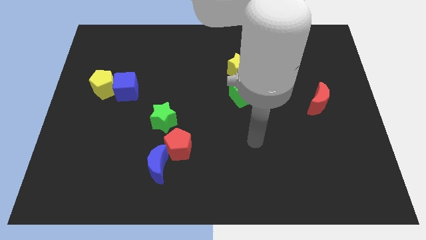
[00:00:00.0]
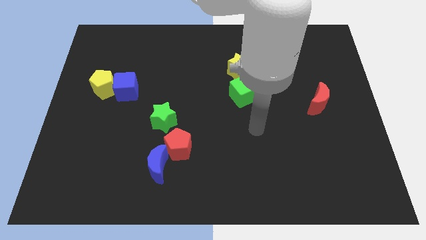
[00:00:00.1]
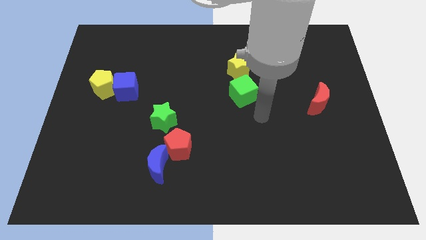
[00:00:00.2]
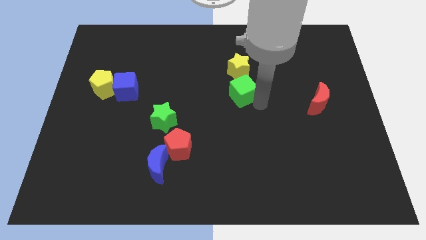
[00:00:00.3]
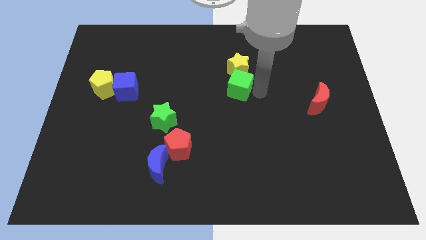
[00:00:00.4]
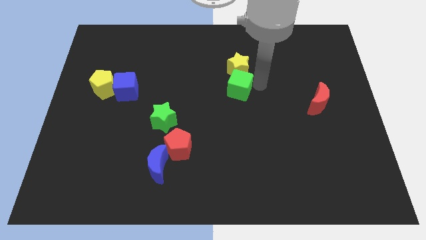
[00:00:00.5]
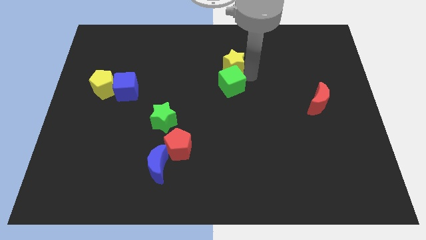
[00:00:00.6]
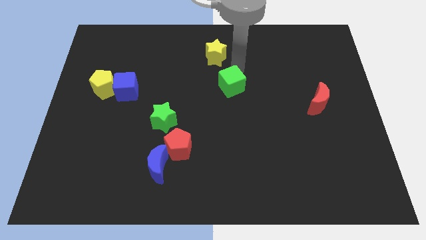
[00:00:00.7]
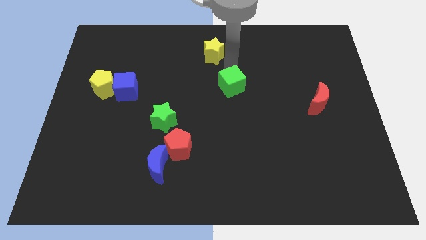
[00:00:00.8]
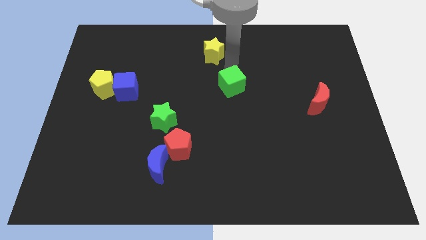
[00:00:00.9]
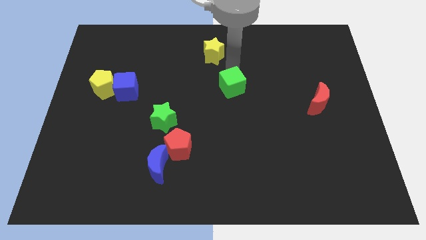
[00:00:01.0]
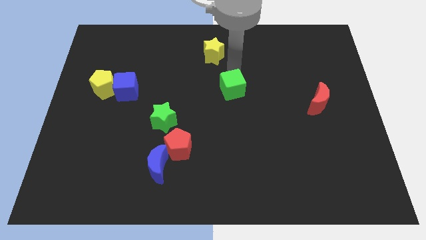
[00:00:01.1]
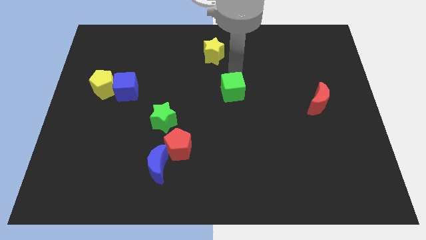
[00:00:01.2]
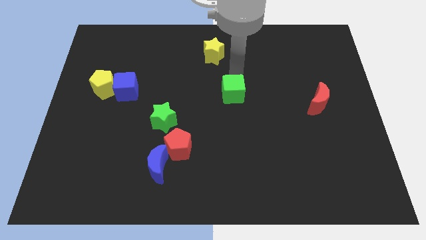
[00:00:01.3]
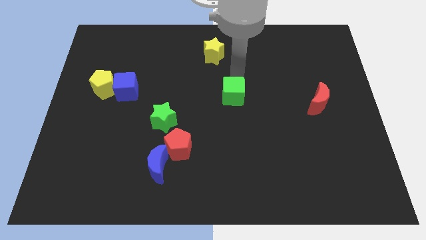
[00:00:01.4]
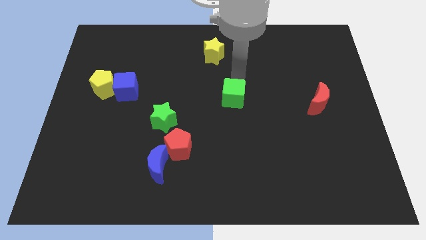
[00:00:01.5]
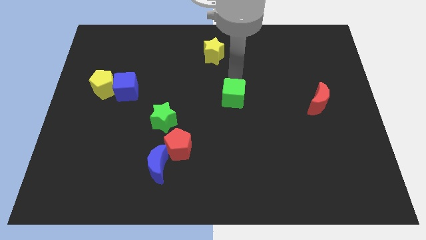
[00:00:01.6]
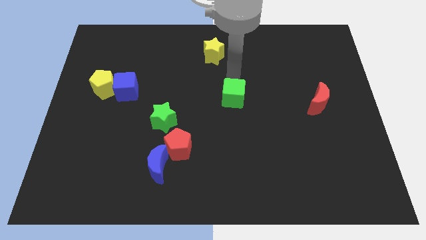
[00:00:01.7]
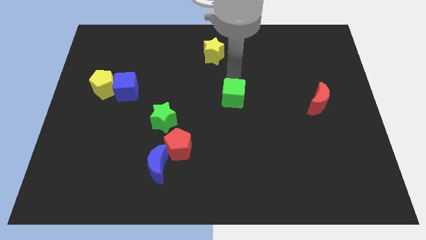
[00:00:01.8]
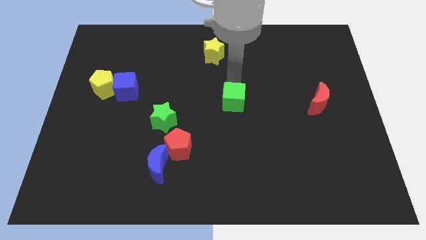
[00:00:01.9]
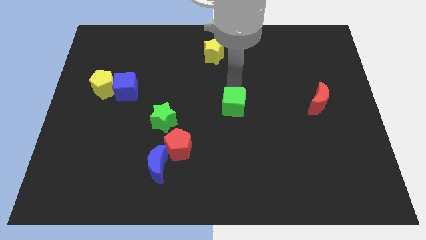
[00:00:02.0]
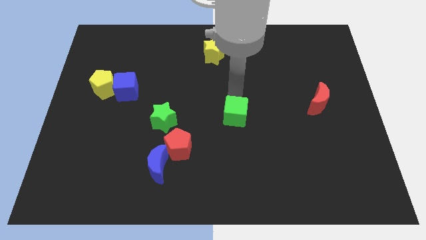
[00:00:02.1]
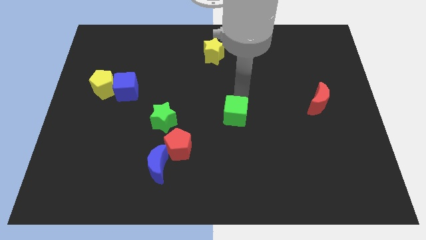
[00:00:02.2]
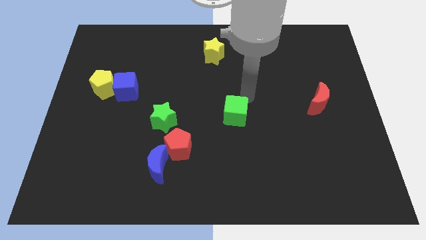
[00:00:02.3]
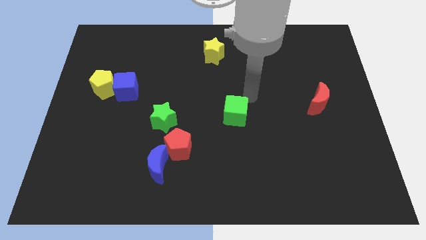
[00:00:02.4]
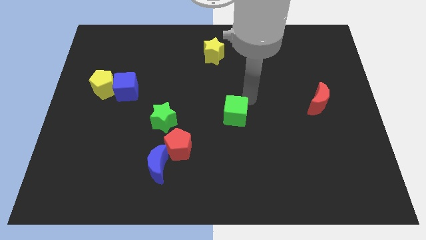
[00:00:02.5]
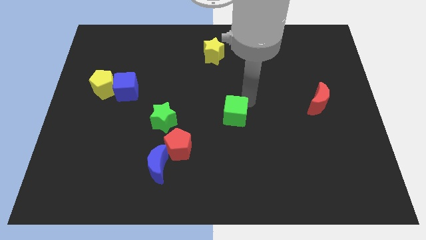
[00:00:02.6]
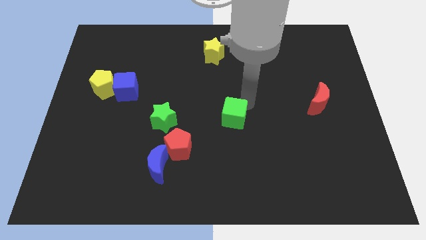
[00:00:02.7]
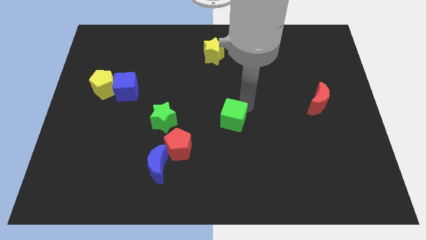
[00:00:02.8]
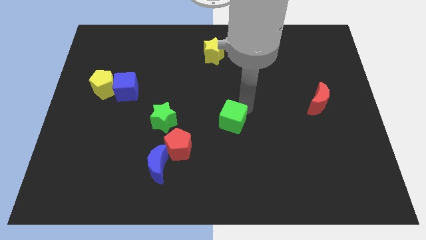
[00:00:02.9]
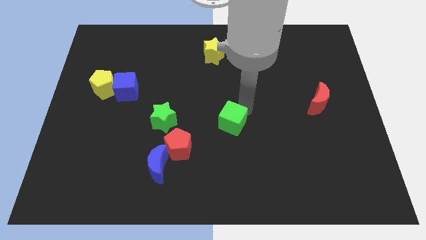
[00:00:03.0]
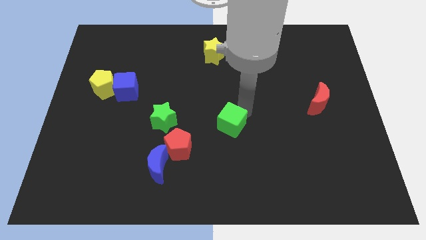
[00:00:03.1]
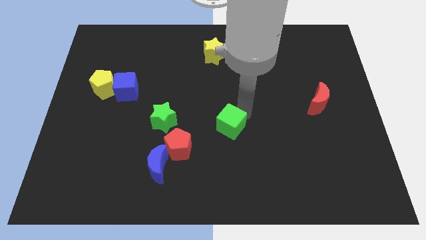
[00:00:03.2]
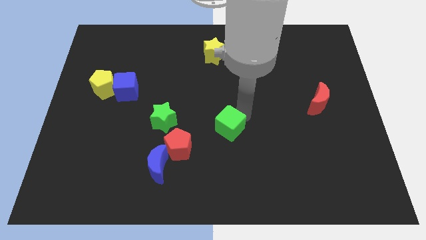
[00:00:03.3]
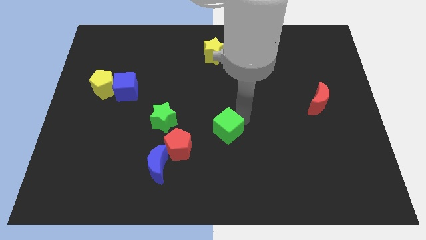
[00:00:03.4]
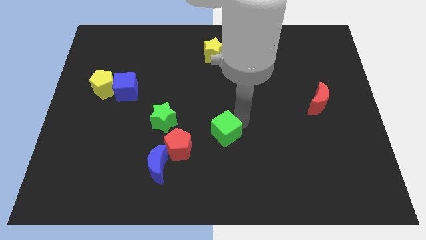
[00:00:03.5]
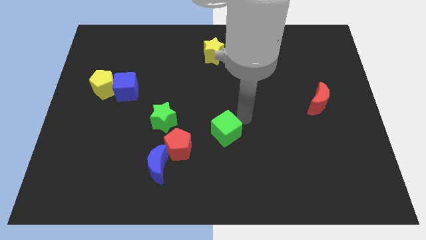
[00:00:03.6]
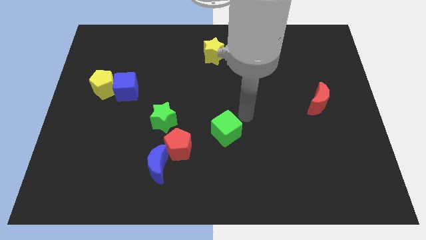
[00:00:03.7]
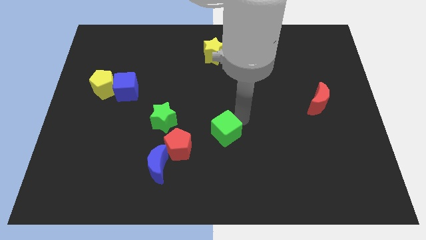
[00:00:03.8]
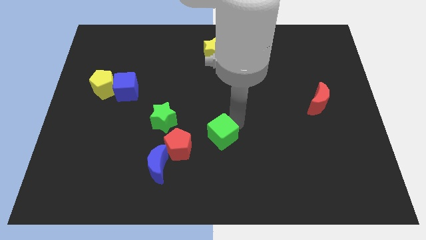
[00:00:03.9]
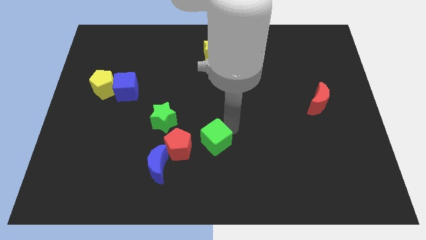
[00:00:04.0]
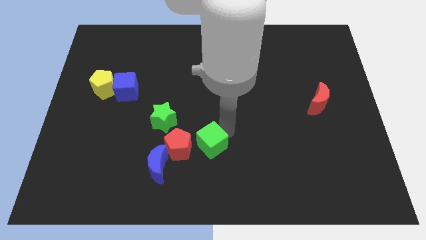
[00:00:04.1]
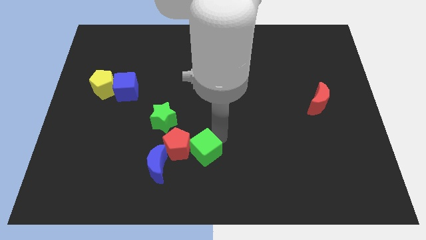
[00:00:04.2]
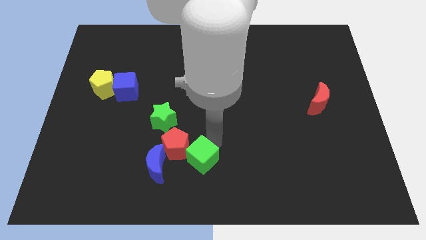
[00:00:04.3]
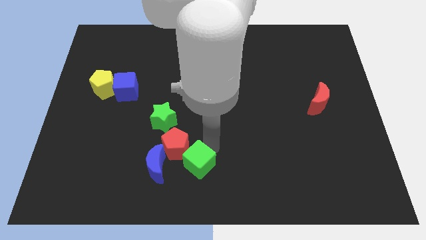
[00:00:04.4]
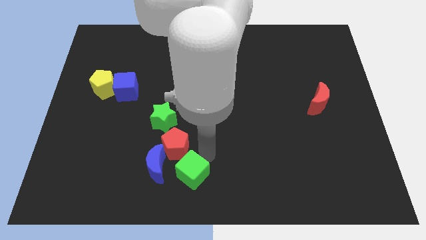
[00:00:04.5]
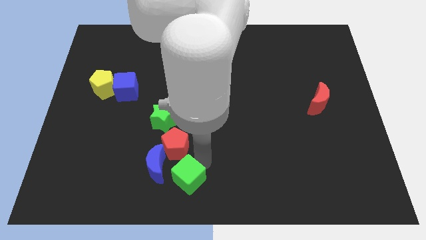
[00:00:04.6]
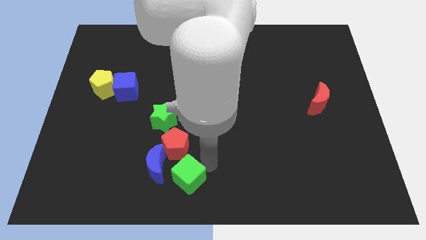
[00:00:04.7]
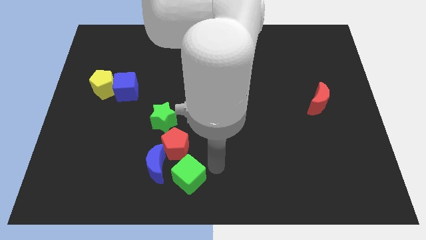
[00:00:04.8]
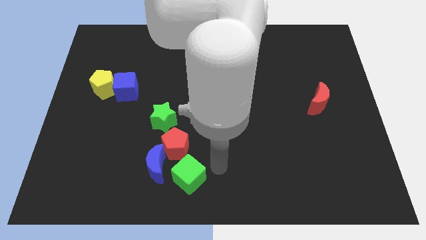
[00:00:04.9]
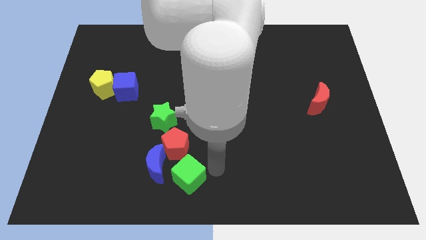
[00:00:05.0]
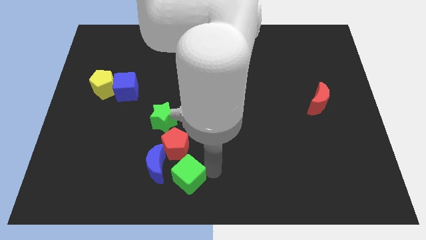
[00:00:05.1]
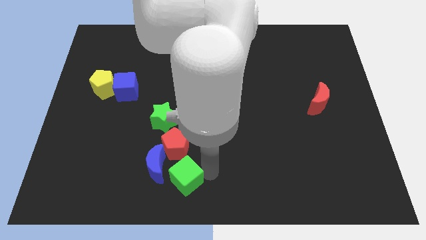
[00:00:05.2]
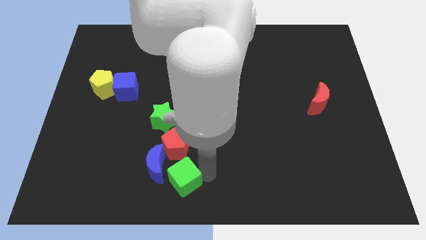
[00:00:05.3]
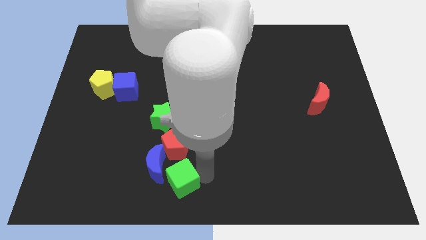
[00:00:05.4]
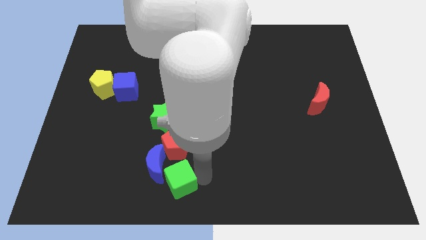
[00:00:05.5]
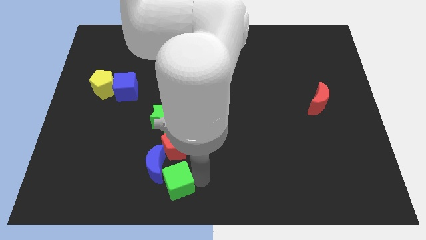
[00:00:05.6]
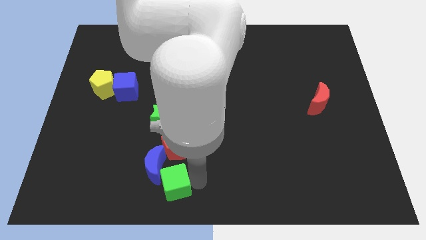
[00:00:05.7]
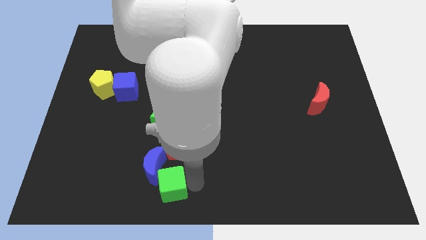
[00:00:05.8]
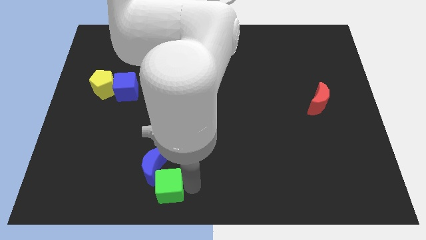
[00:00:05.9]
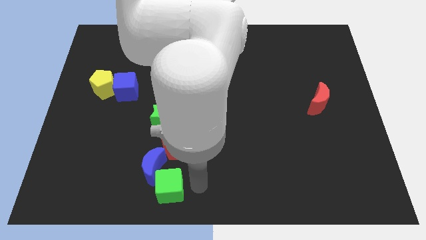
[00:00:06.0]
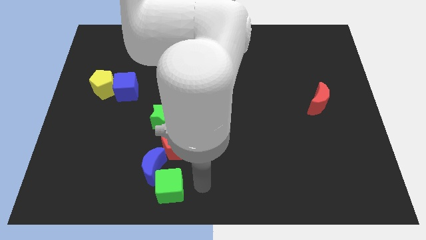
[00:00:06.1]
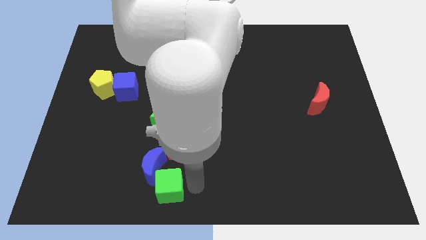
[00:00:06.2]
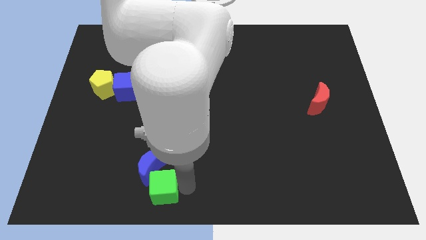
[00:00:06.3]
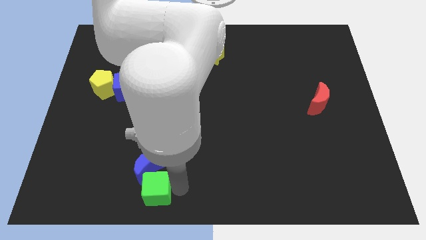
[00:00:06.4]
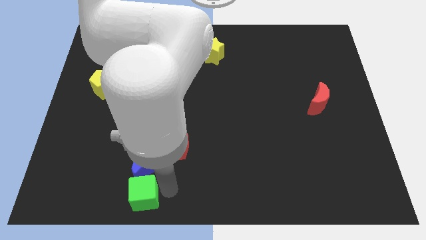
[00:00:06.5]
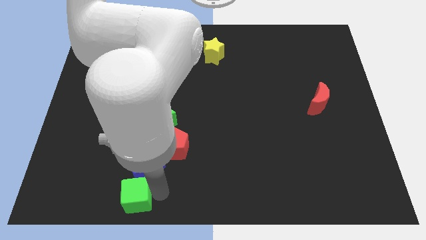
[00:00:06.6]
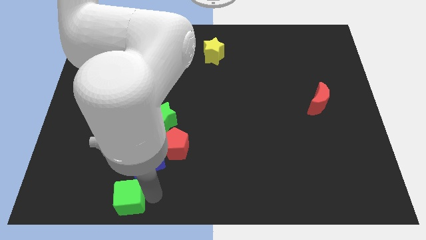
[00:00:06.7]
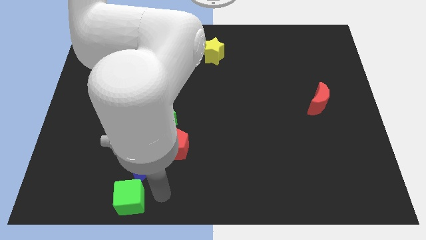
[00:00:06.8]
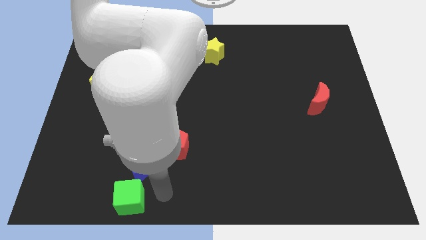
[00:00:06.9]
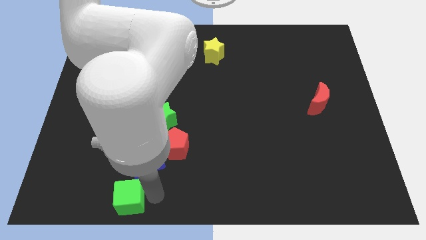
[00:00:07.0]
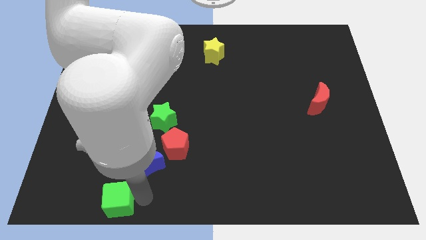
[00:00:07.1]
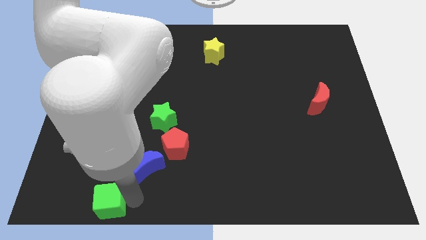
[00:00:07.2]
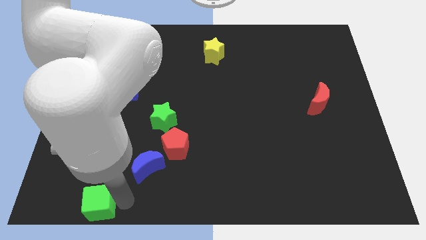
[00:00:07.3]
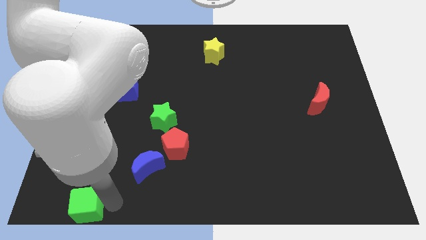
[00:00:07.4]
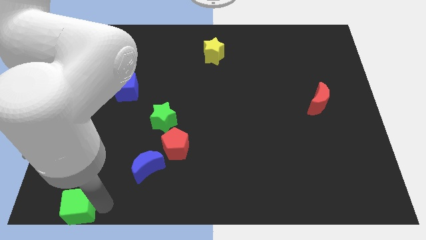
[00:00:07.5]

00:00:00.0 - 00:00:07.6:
move the green cube to the lower left corner
